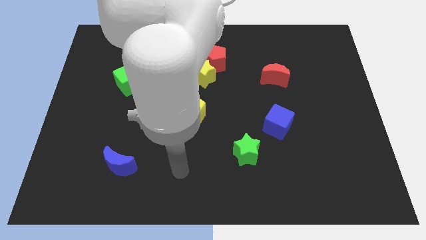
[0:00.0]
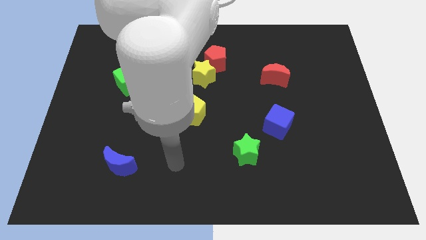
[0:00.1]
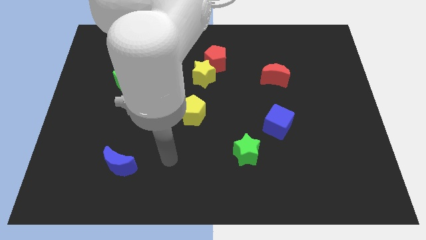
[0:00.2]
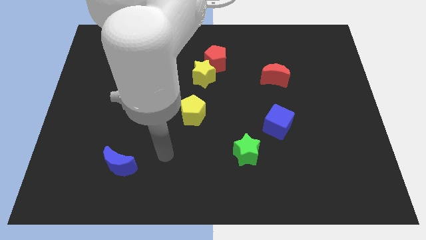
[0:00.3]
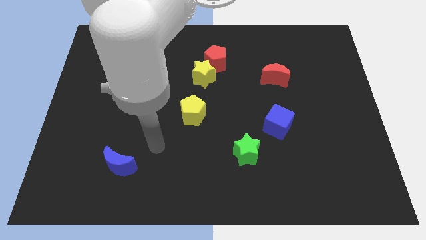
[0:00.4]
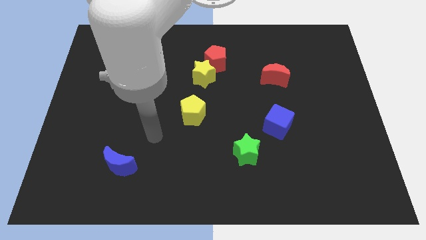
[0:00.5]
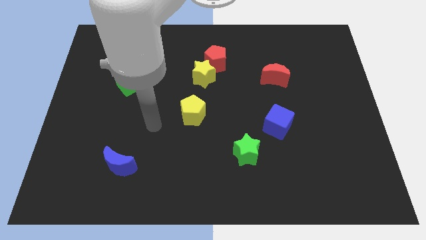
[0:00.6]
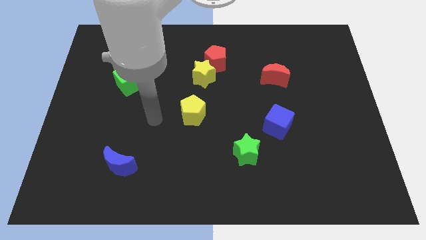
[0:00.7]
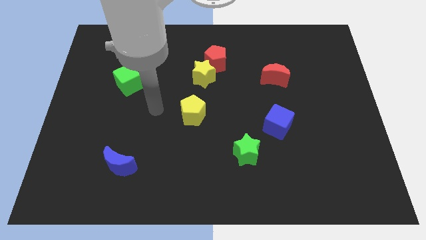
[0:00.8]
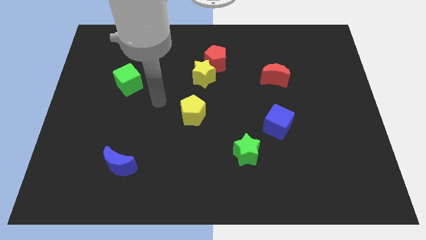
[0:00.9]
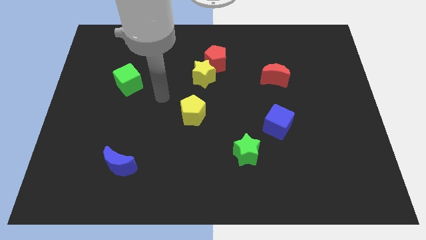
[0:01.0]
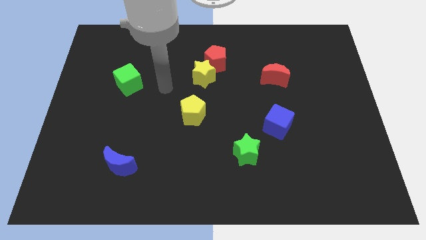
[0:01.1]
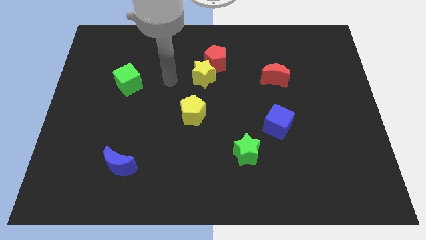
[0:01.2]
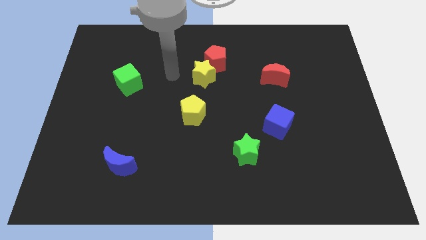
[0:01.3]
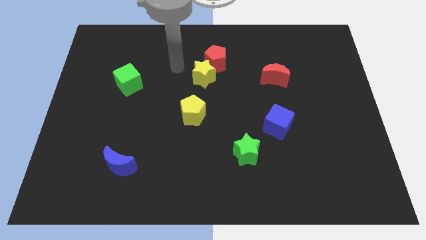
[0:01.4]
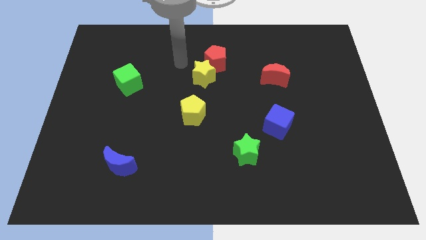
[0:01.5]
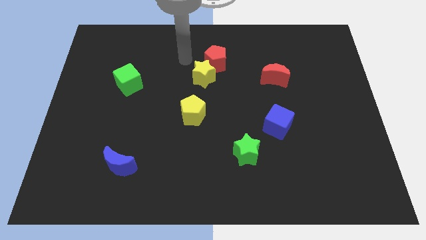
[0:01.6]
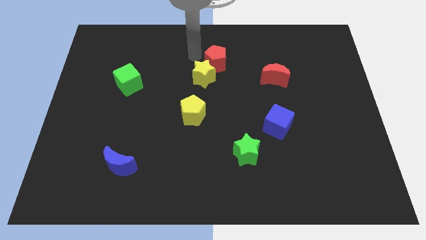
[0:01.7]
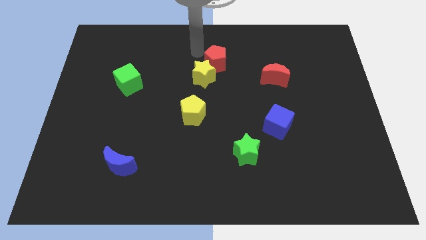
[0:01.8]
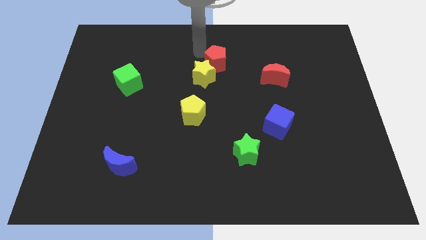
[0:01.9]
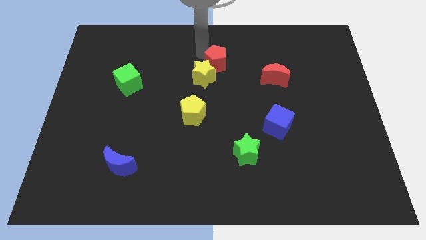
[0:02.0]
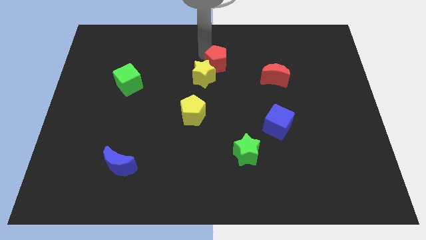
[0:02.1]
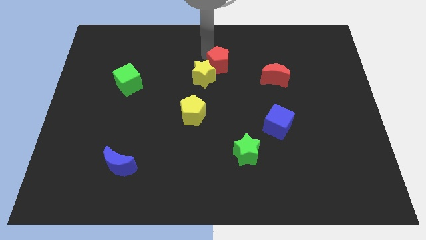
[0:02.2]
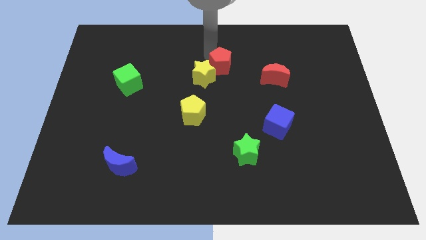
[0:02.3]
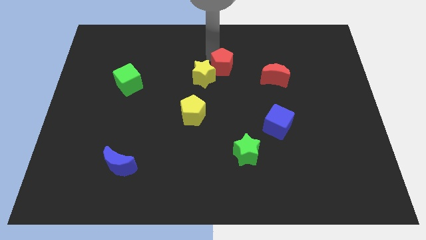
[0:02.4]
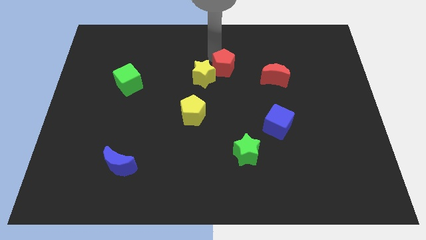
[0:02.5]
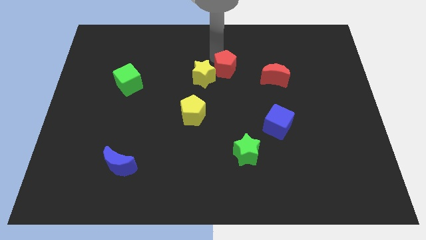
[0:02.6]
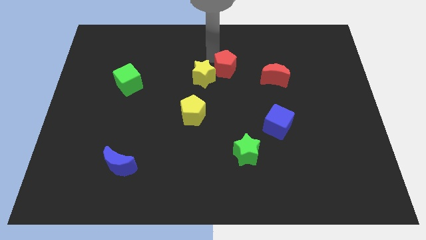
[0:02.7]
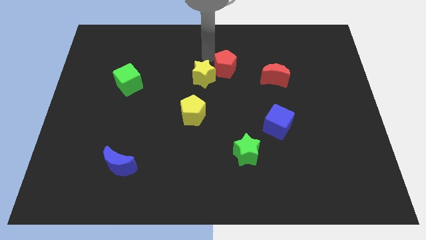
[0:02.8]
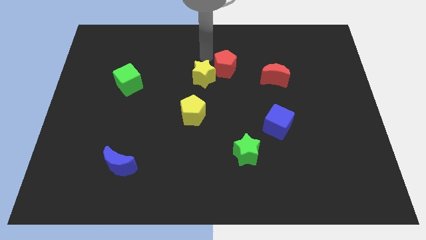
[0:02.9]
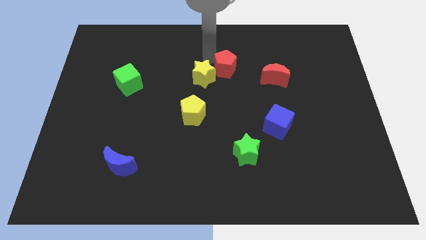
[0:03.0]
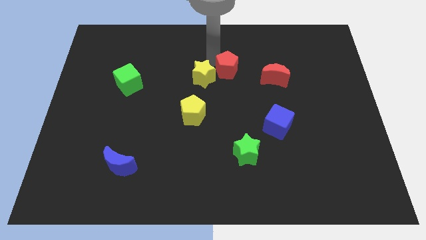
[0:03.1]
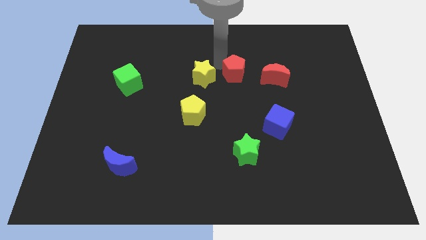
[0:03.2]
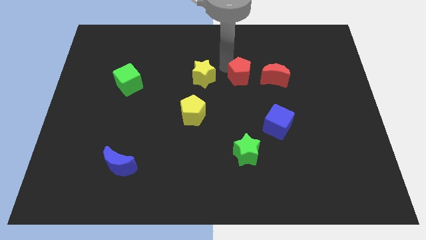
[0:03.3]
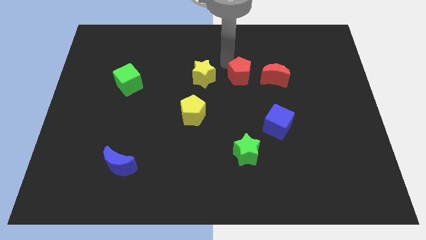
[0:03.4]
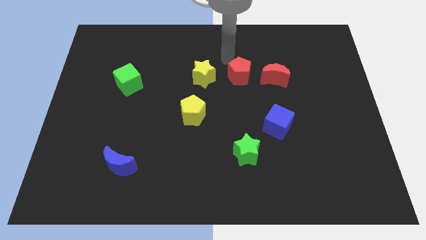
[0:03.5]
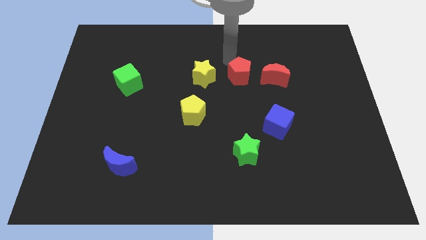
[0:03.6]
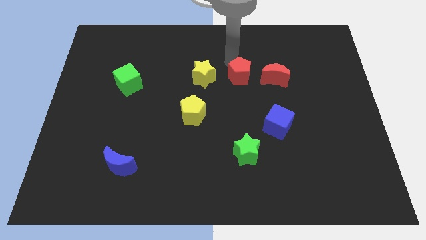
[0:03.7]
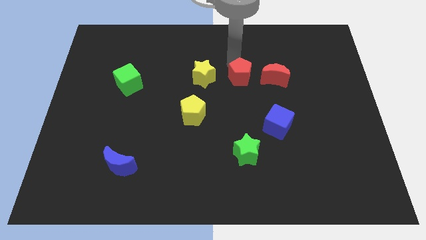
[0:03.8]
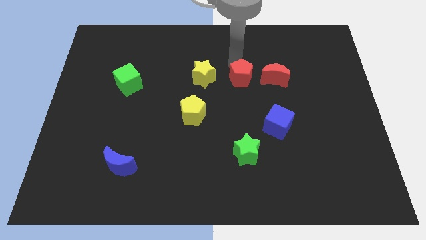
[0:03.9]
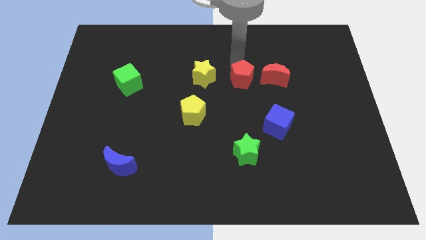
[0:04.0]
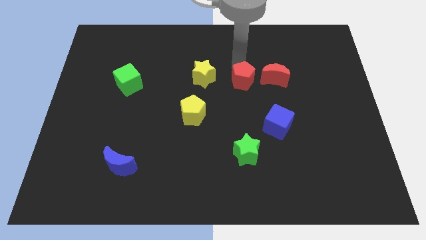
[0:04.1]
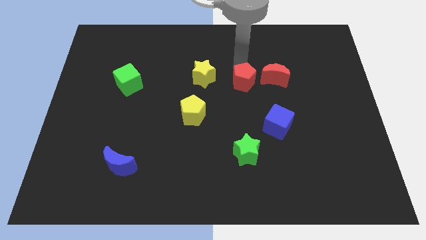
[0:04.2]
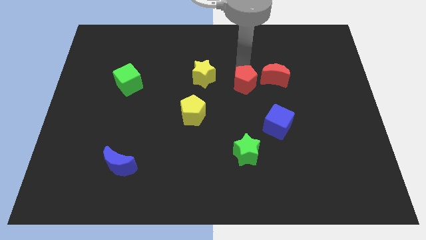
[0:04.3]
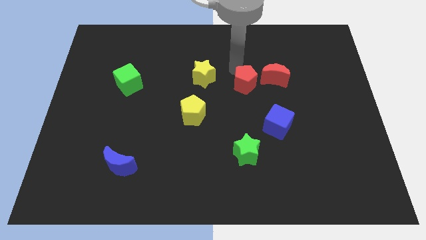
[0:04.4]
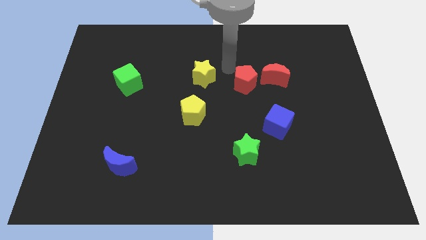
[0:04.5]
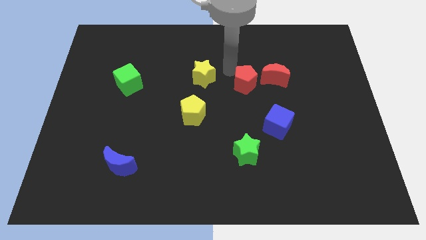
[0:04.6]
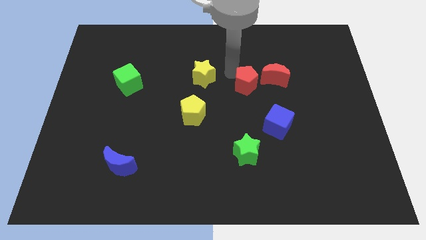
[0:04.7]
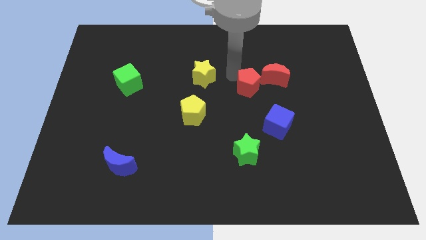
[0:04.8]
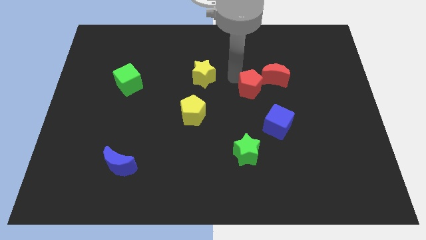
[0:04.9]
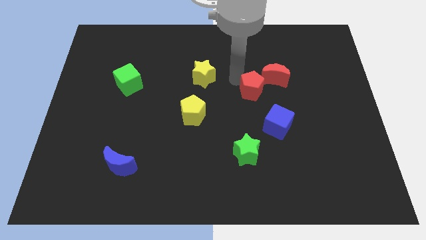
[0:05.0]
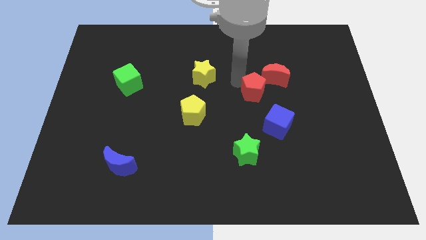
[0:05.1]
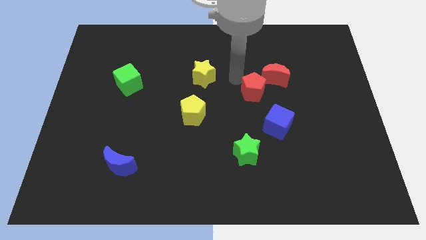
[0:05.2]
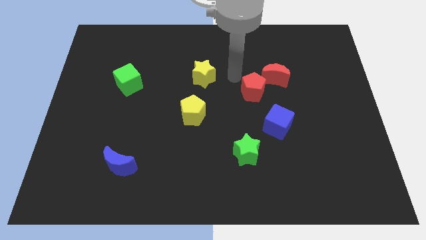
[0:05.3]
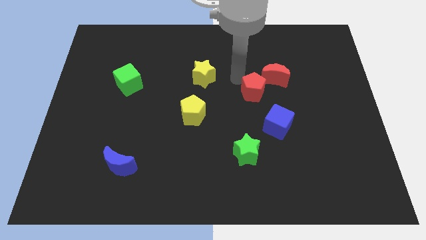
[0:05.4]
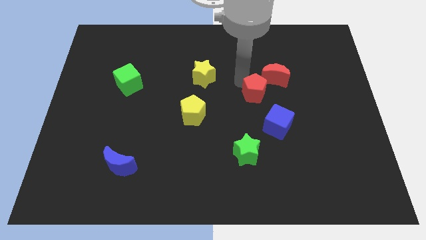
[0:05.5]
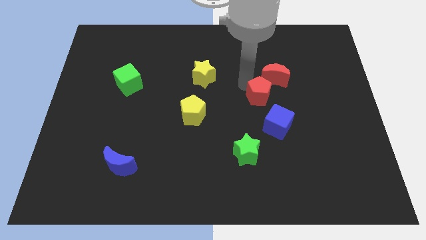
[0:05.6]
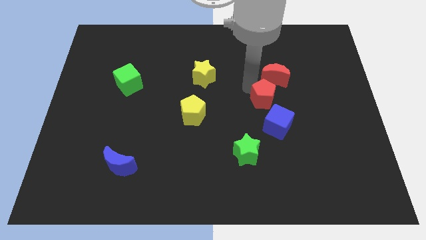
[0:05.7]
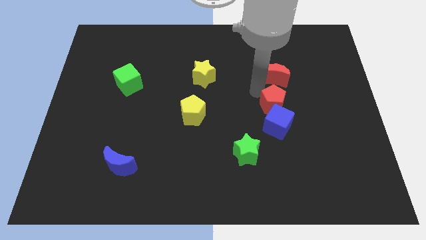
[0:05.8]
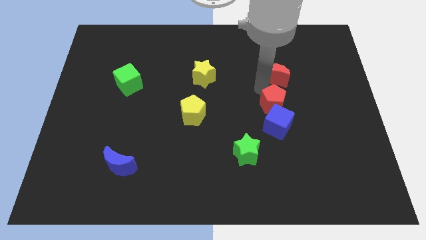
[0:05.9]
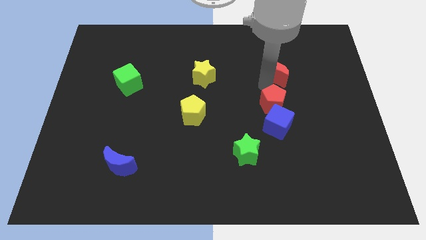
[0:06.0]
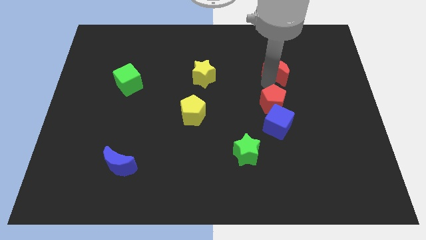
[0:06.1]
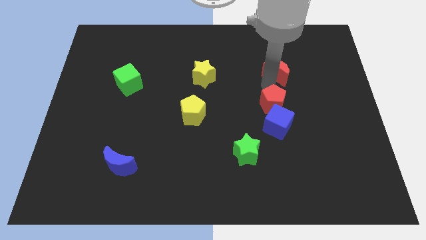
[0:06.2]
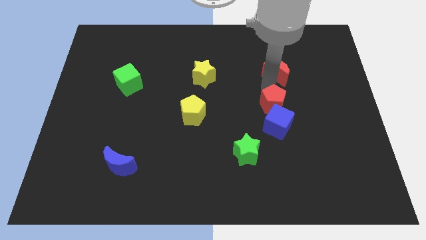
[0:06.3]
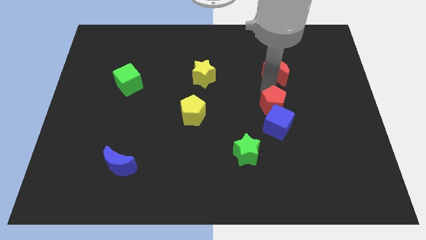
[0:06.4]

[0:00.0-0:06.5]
move the red pentagon towards the blue cube

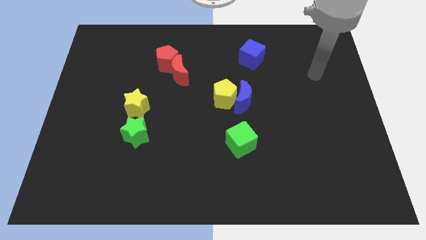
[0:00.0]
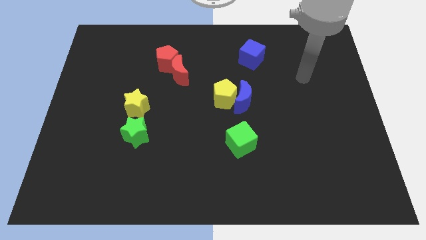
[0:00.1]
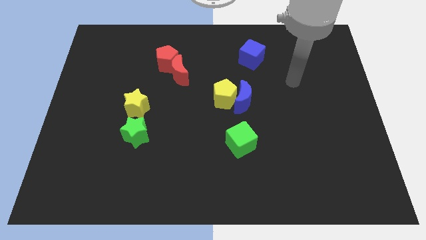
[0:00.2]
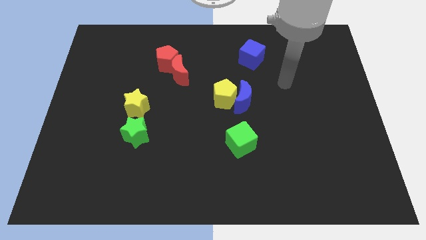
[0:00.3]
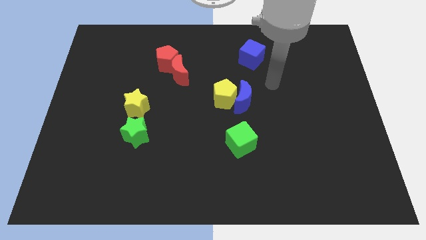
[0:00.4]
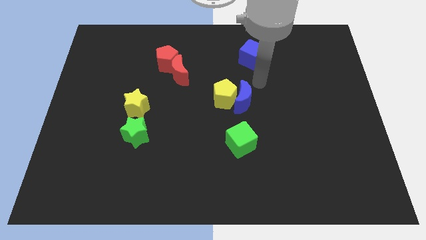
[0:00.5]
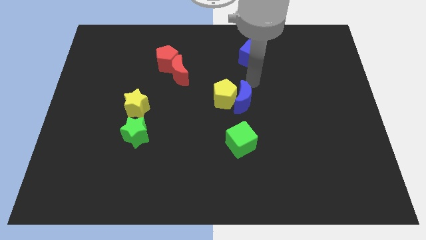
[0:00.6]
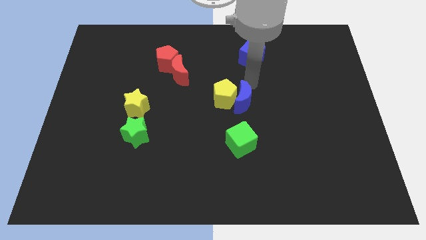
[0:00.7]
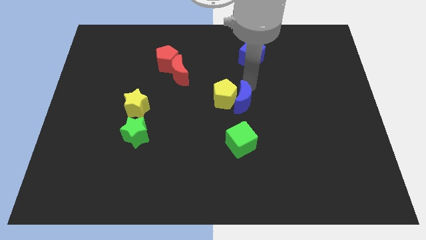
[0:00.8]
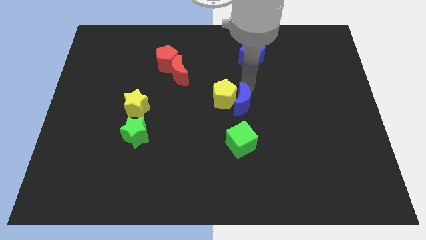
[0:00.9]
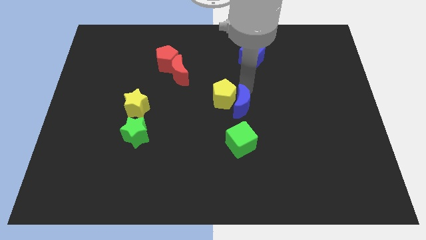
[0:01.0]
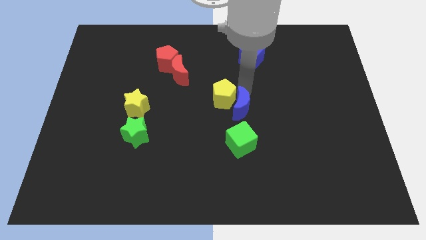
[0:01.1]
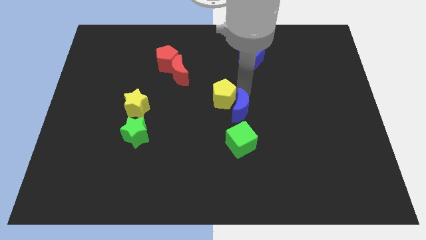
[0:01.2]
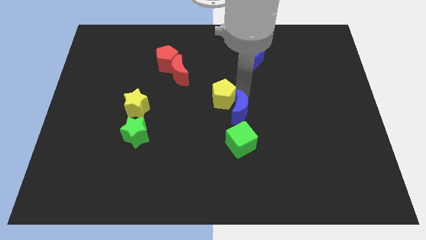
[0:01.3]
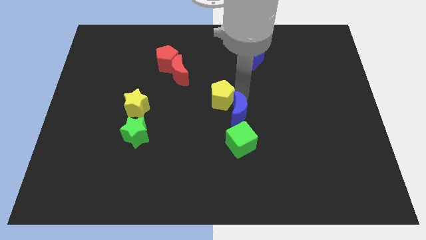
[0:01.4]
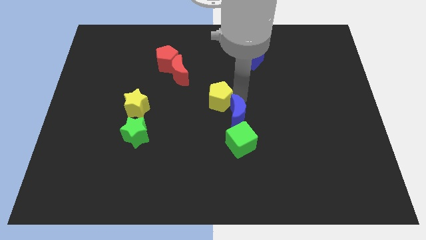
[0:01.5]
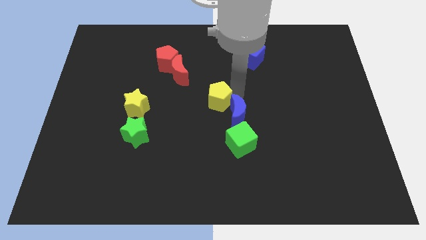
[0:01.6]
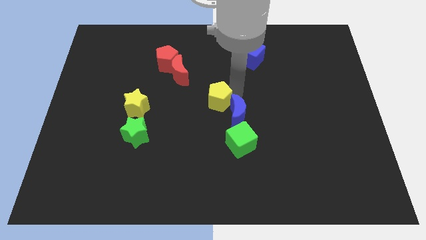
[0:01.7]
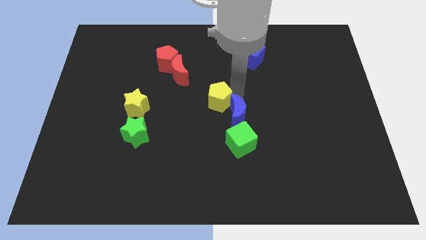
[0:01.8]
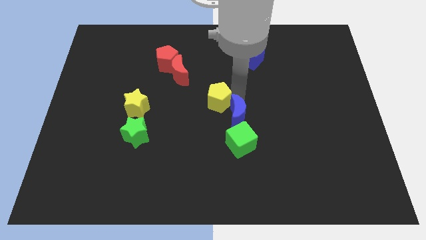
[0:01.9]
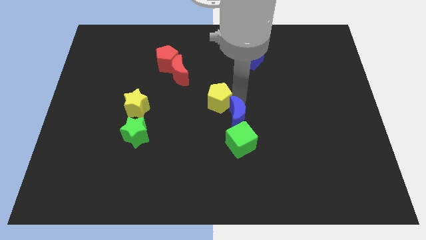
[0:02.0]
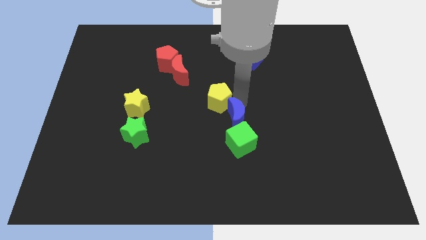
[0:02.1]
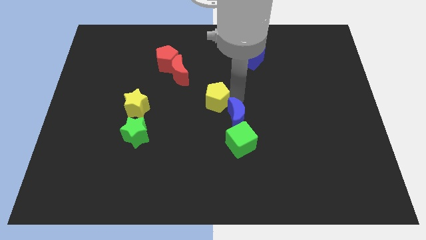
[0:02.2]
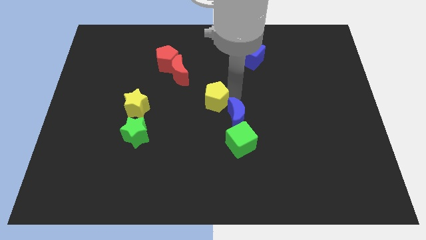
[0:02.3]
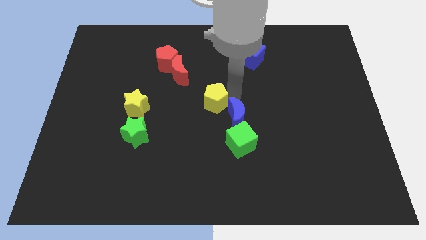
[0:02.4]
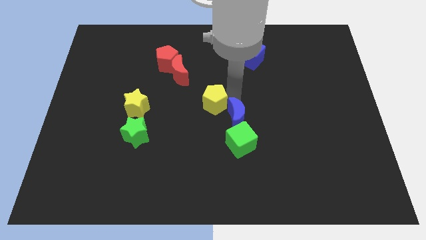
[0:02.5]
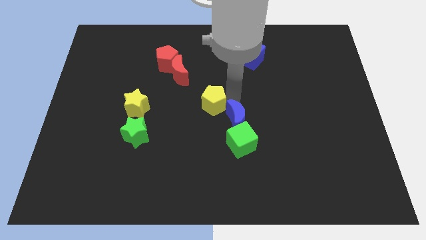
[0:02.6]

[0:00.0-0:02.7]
move the blue moon close to the green cube
